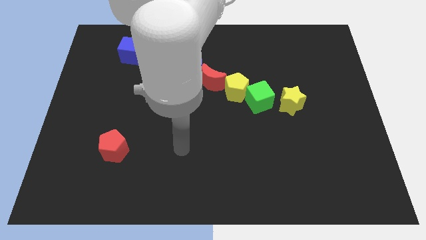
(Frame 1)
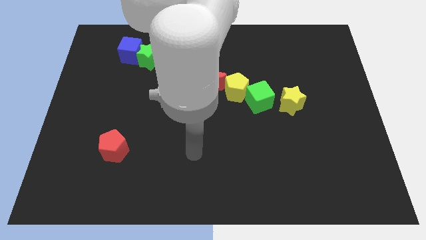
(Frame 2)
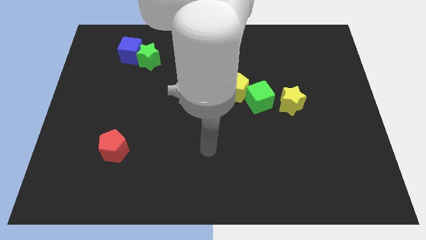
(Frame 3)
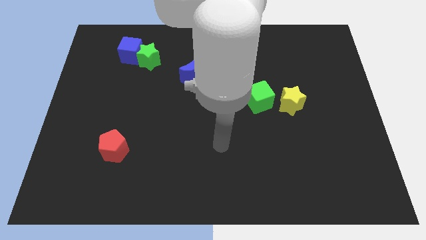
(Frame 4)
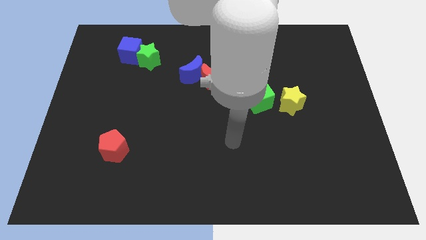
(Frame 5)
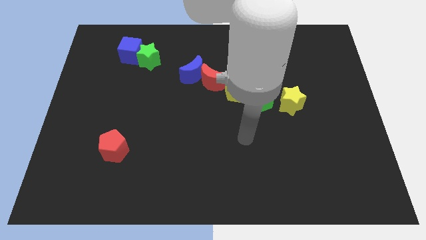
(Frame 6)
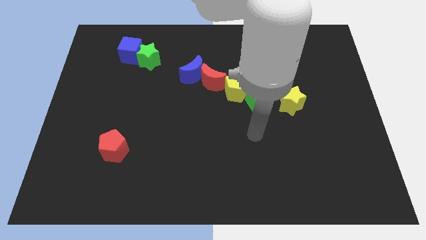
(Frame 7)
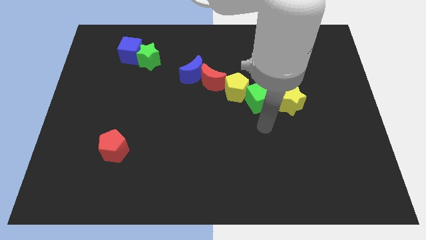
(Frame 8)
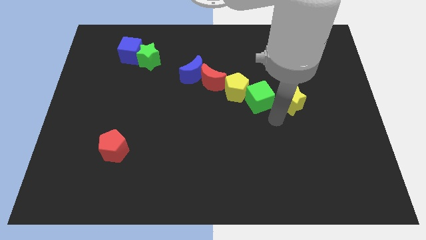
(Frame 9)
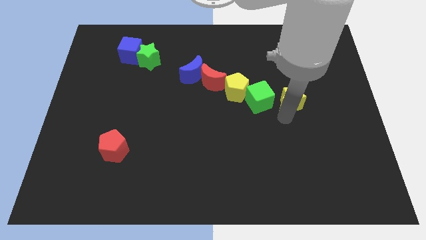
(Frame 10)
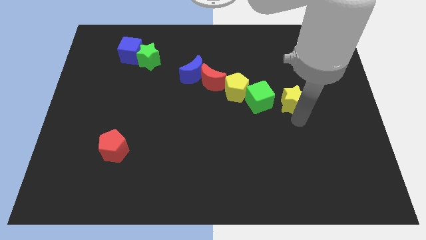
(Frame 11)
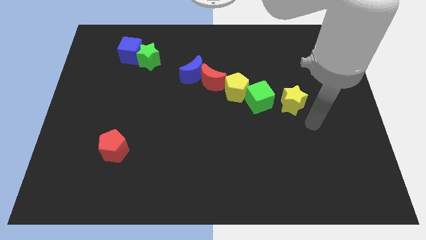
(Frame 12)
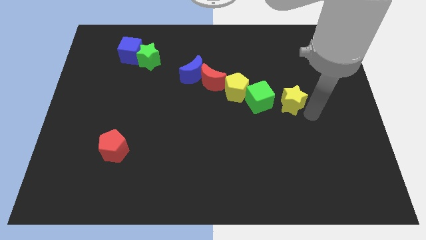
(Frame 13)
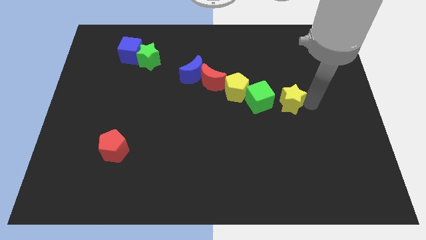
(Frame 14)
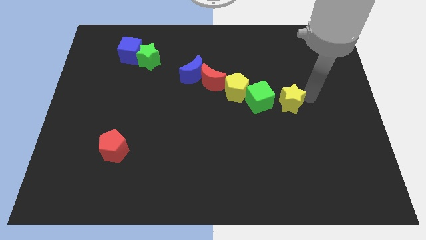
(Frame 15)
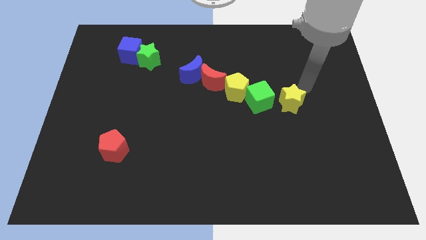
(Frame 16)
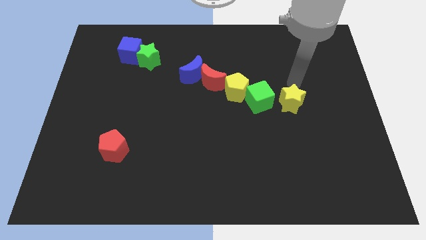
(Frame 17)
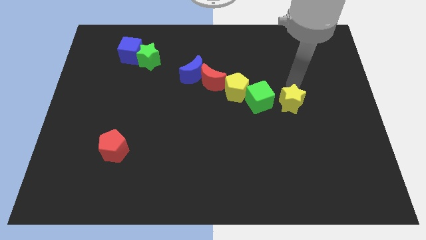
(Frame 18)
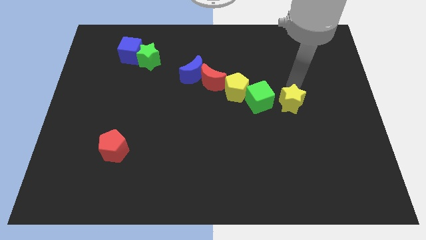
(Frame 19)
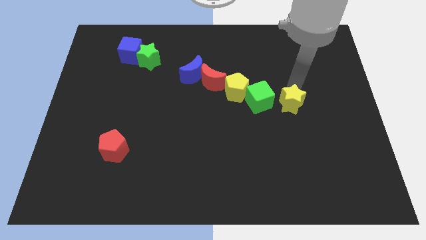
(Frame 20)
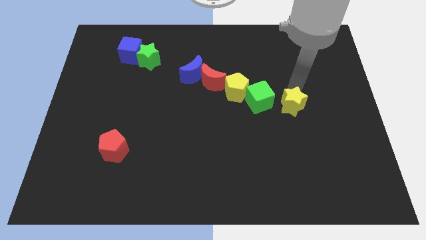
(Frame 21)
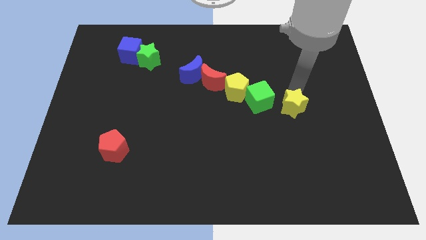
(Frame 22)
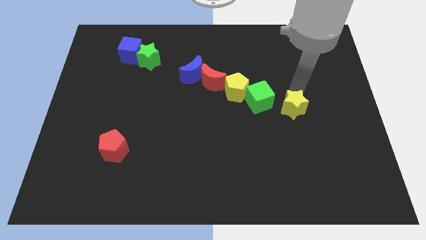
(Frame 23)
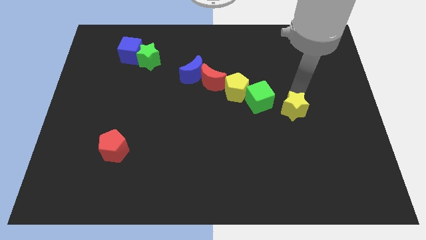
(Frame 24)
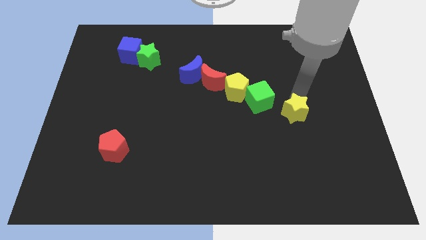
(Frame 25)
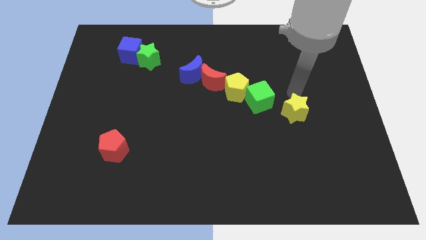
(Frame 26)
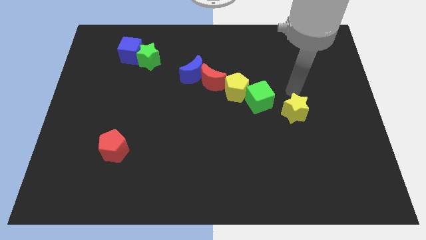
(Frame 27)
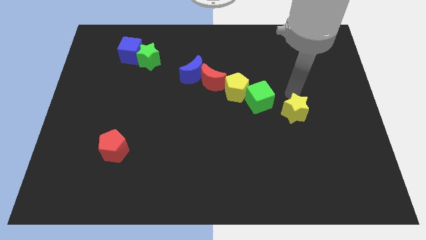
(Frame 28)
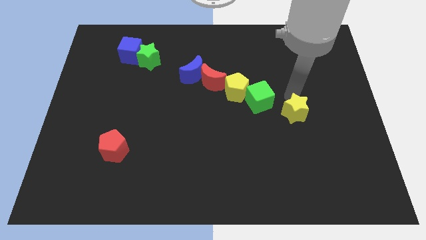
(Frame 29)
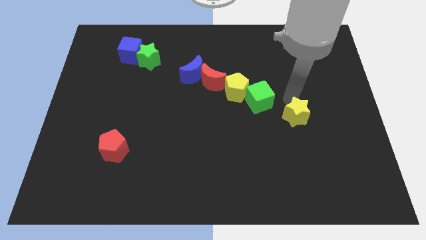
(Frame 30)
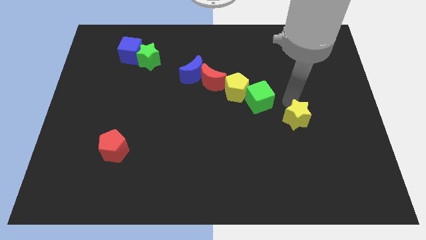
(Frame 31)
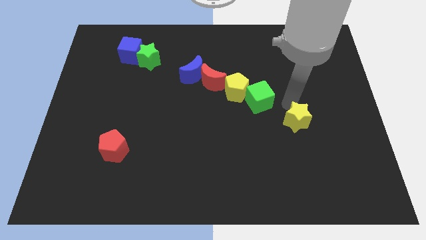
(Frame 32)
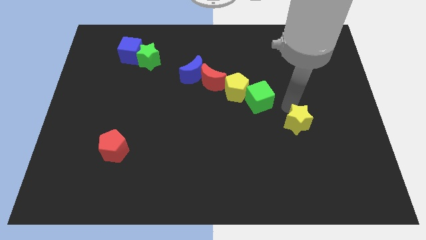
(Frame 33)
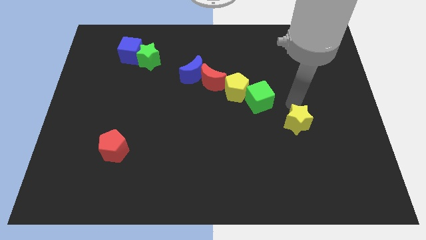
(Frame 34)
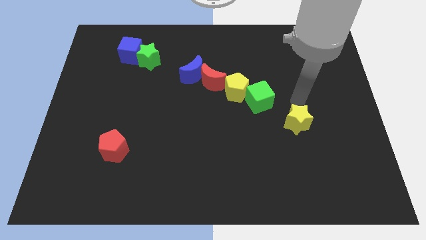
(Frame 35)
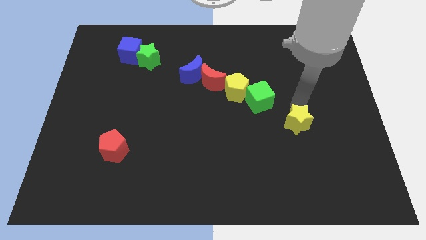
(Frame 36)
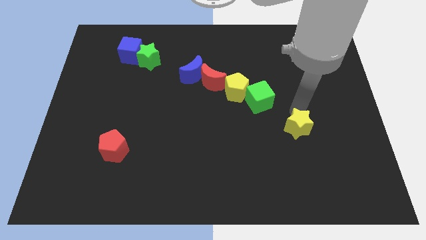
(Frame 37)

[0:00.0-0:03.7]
push the yellow star slightly down

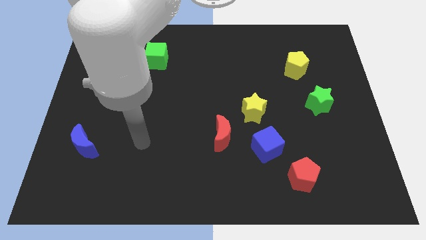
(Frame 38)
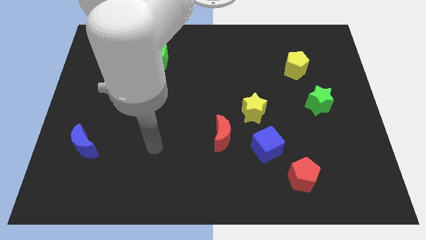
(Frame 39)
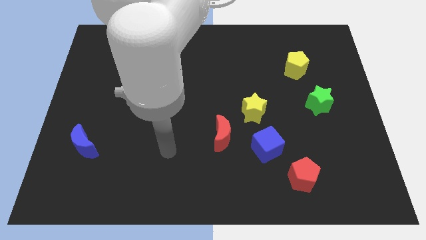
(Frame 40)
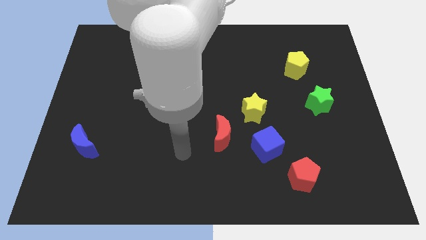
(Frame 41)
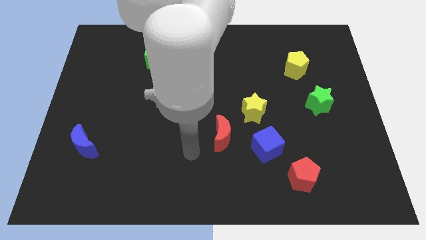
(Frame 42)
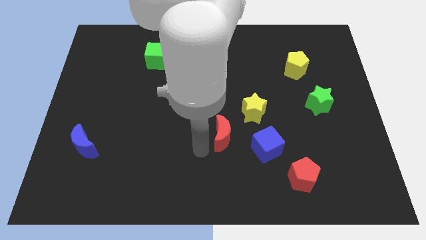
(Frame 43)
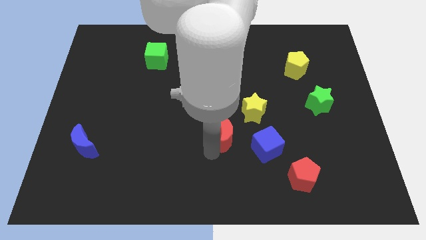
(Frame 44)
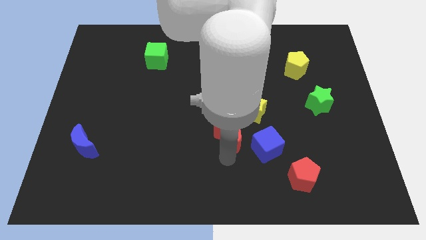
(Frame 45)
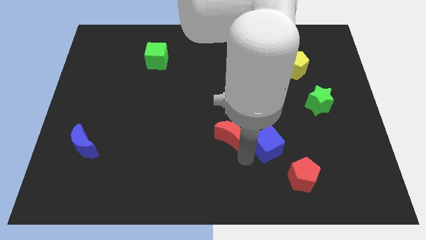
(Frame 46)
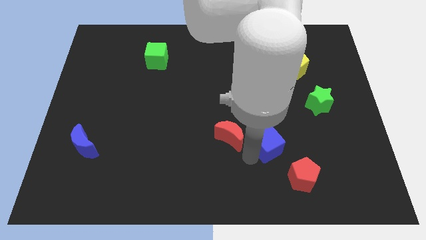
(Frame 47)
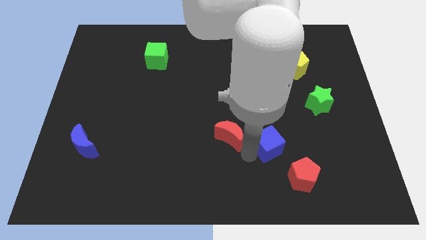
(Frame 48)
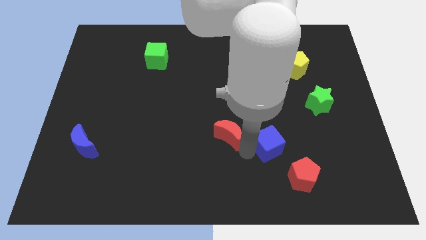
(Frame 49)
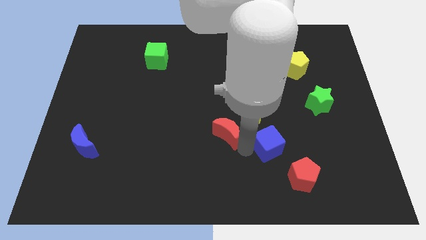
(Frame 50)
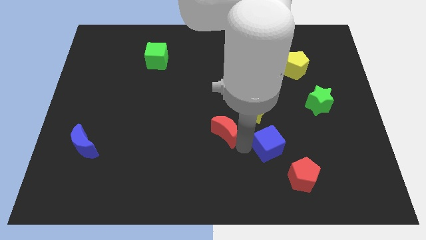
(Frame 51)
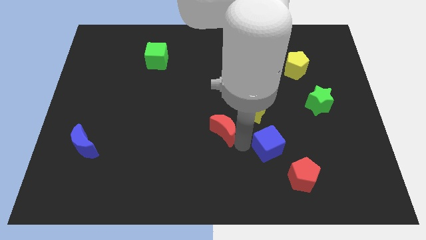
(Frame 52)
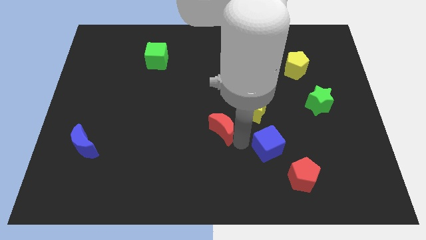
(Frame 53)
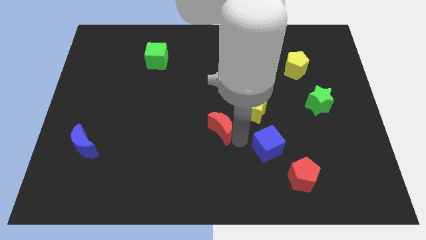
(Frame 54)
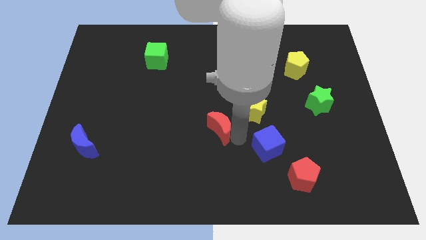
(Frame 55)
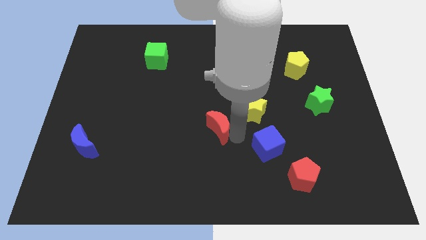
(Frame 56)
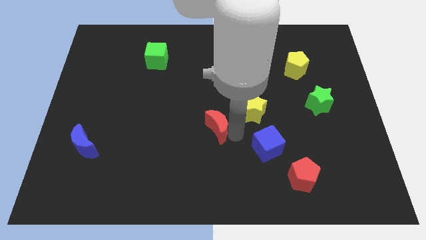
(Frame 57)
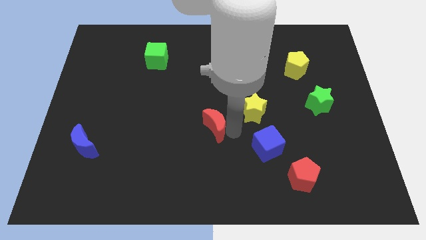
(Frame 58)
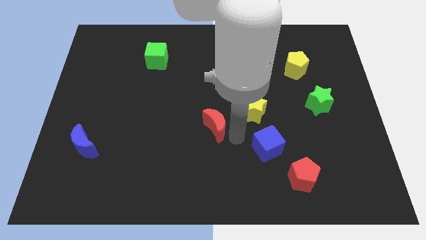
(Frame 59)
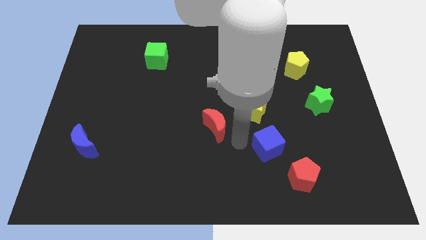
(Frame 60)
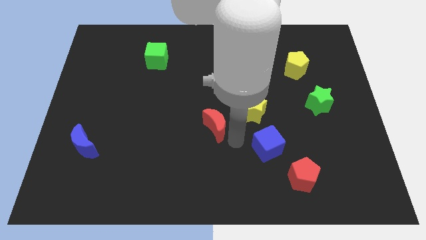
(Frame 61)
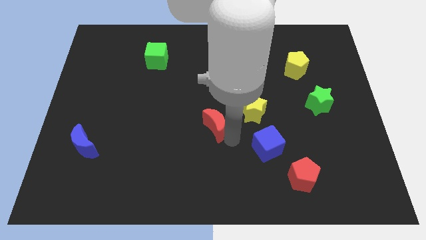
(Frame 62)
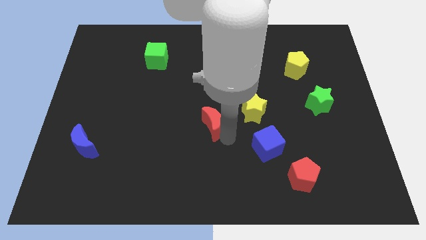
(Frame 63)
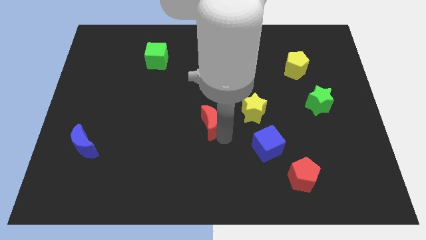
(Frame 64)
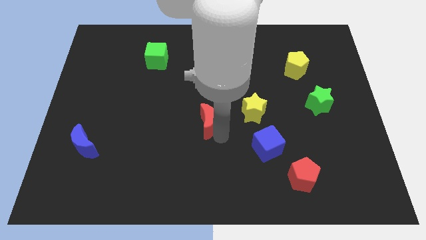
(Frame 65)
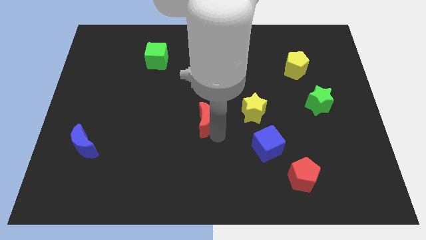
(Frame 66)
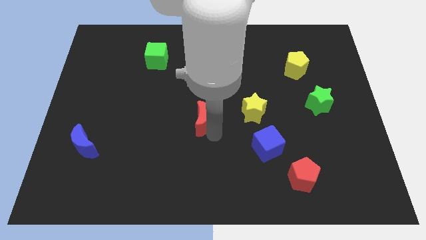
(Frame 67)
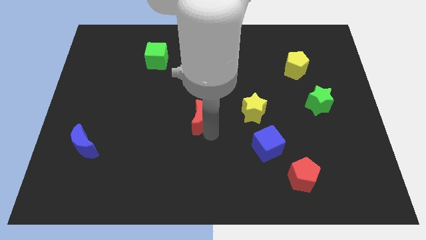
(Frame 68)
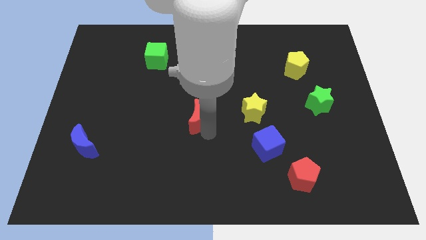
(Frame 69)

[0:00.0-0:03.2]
slightly slide the red moon diagonally upwards and left

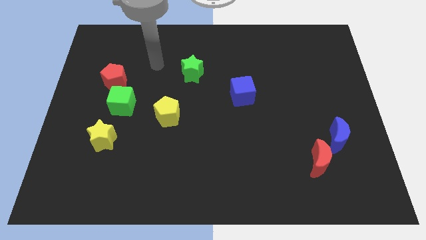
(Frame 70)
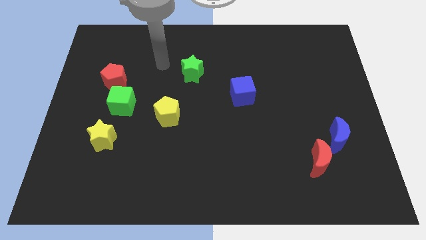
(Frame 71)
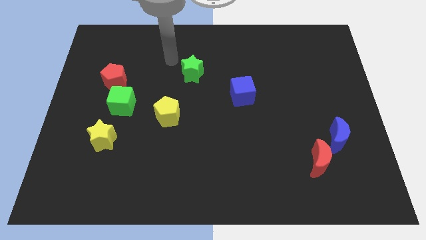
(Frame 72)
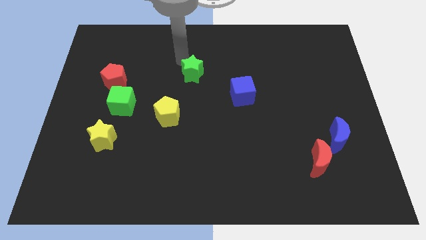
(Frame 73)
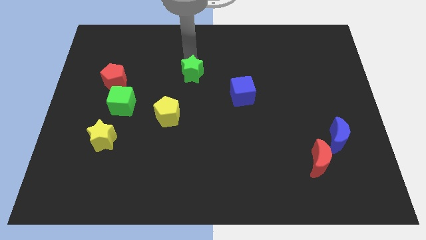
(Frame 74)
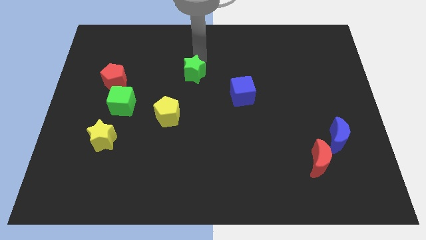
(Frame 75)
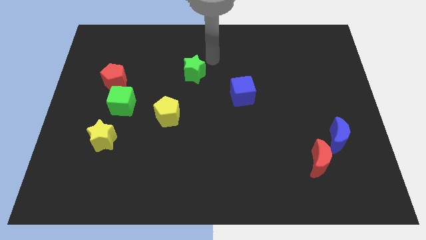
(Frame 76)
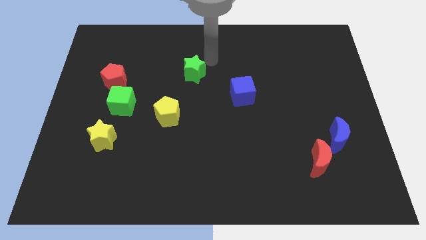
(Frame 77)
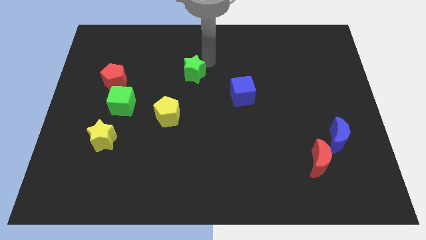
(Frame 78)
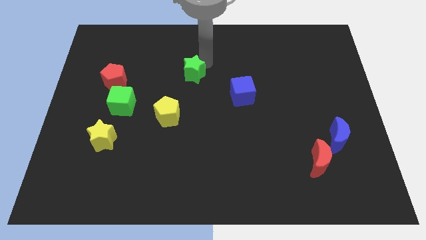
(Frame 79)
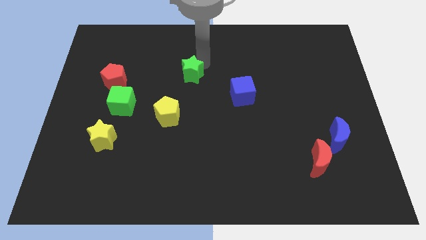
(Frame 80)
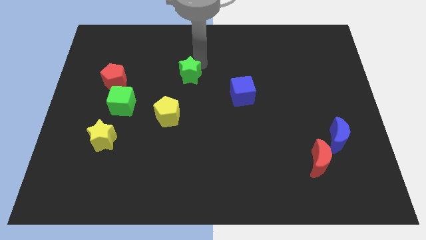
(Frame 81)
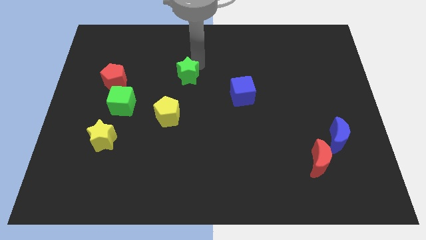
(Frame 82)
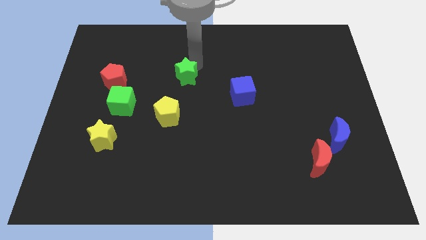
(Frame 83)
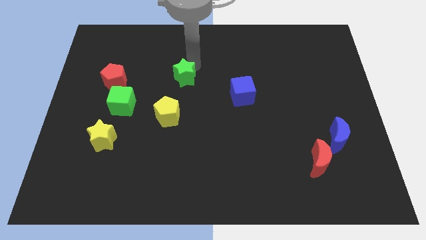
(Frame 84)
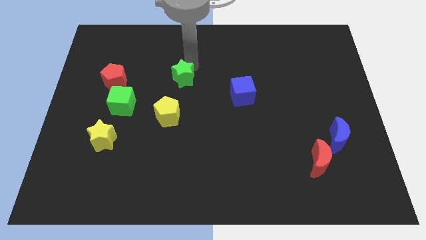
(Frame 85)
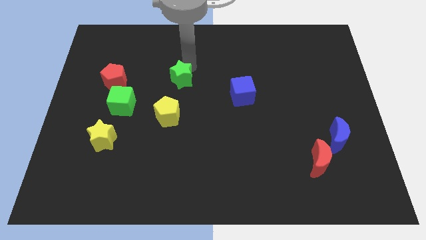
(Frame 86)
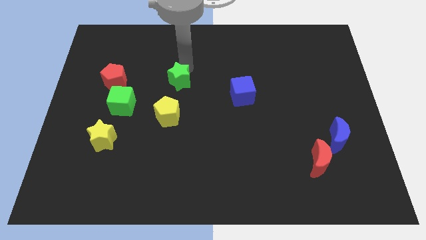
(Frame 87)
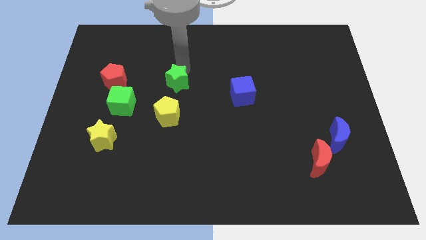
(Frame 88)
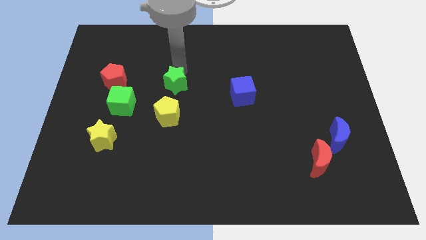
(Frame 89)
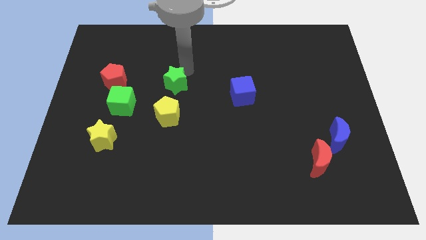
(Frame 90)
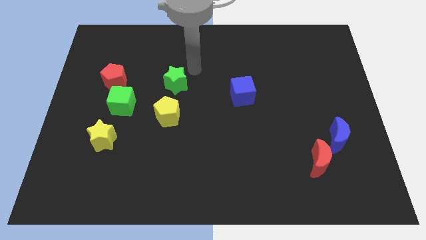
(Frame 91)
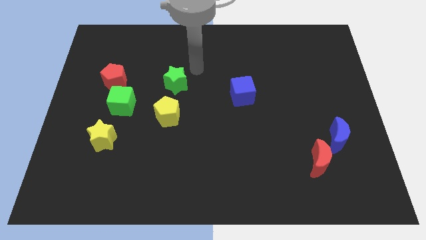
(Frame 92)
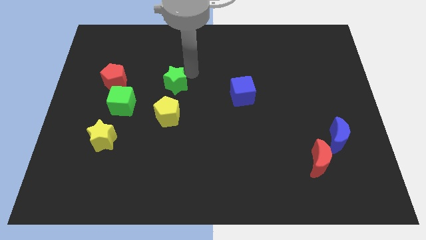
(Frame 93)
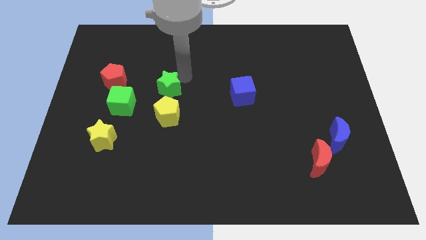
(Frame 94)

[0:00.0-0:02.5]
slightly slide the green star downwards and then to the left
